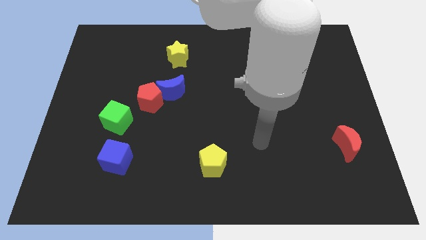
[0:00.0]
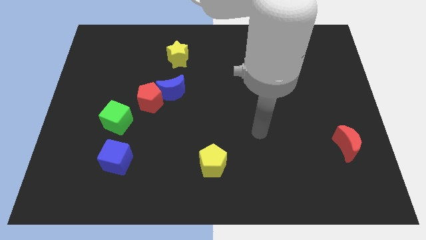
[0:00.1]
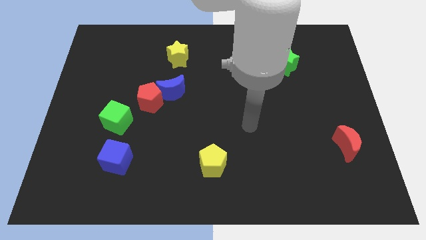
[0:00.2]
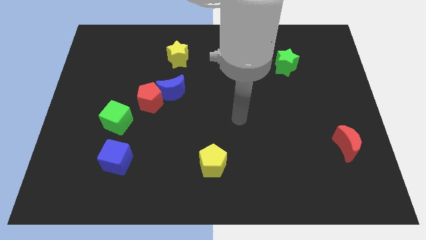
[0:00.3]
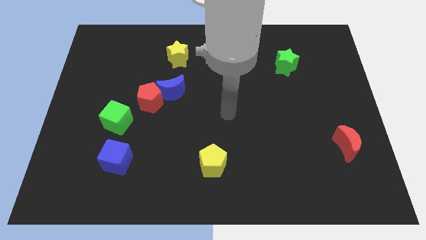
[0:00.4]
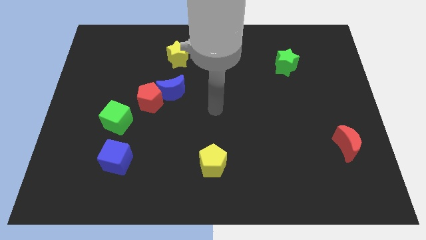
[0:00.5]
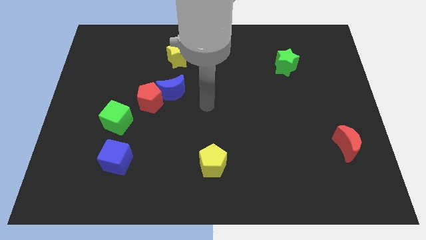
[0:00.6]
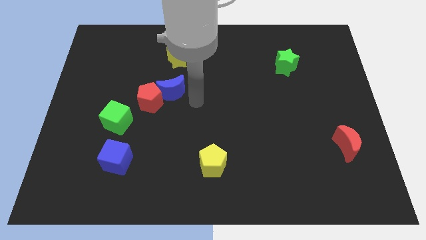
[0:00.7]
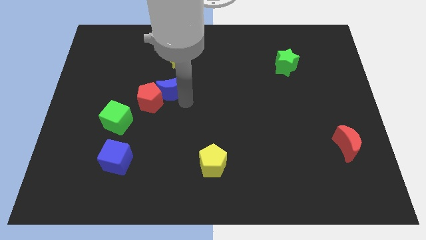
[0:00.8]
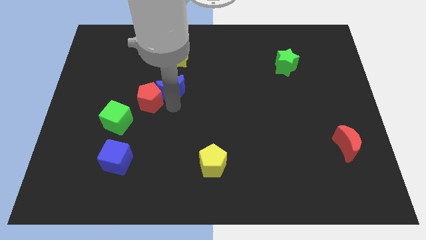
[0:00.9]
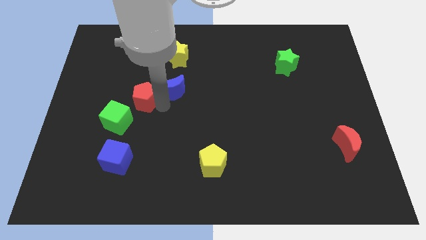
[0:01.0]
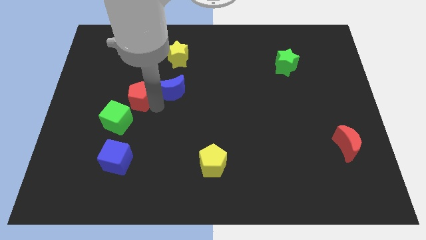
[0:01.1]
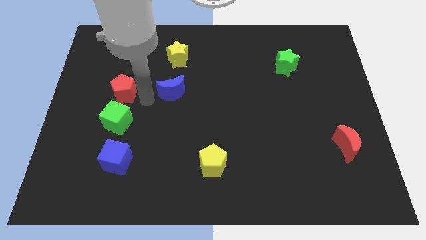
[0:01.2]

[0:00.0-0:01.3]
separate the blue moon from the red pentagon

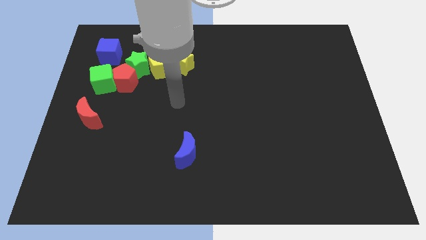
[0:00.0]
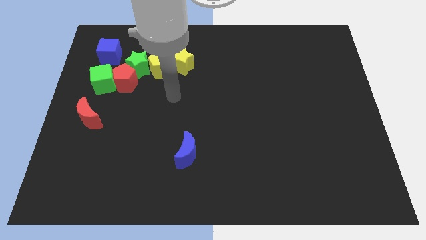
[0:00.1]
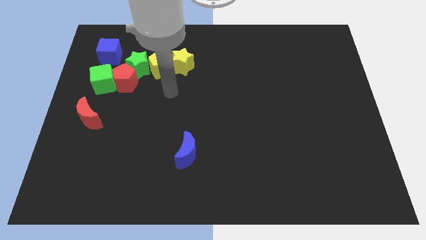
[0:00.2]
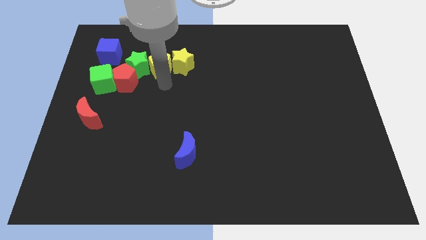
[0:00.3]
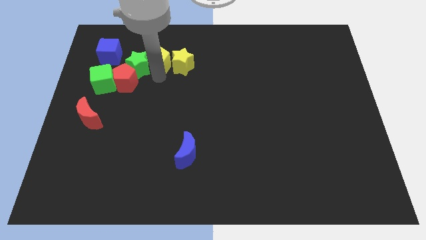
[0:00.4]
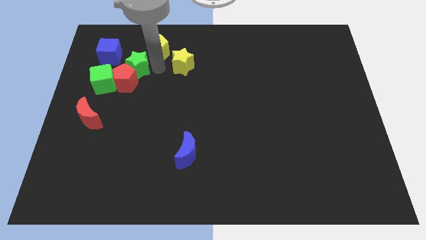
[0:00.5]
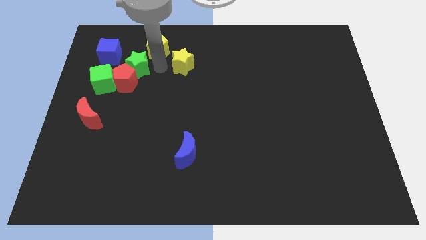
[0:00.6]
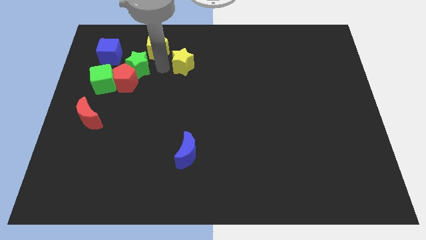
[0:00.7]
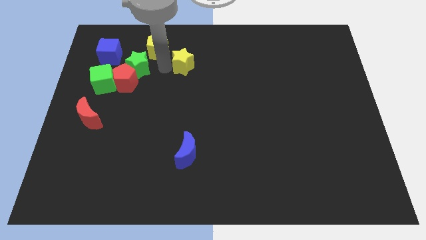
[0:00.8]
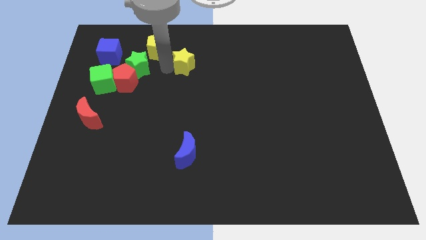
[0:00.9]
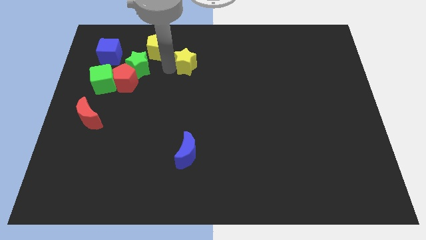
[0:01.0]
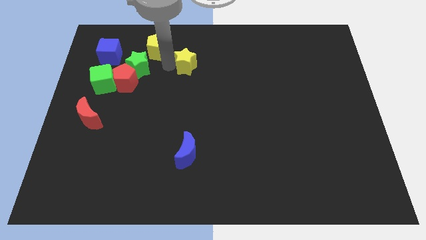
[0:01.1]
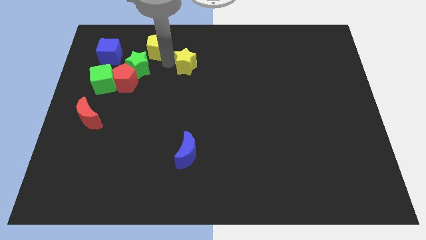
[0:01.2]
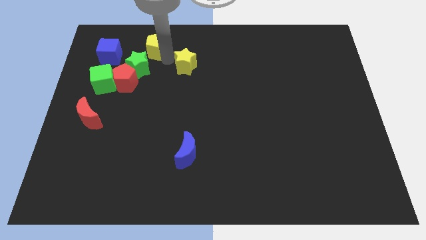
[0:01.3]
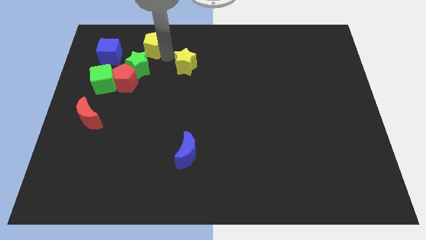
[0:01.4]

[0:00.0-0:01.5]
move the yellow star away from the yellow pentagon

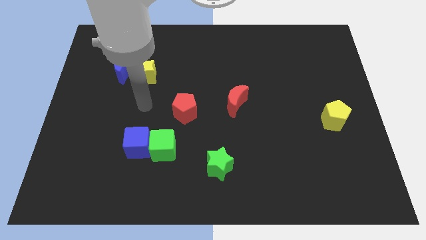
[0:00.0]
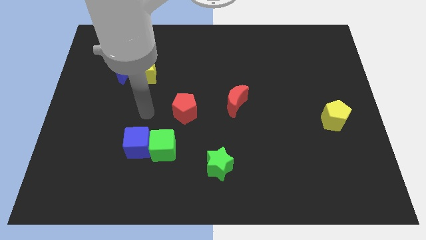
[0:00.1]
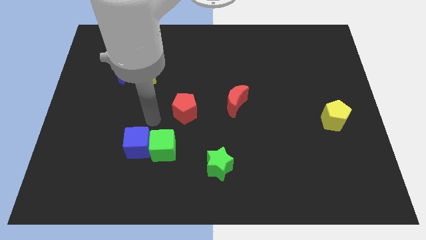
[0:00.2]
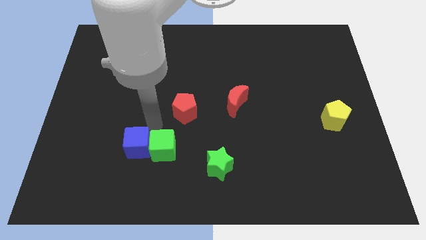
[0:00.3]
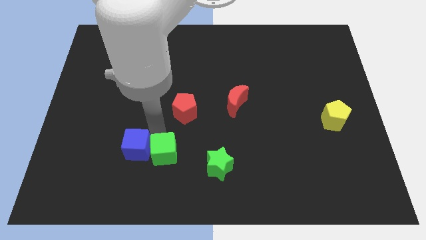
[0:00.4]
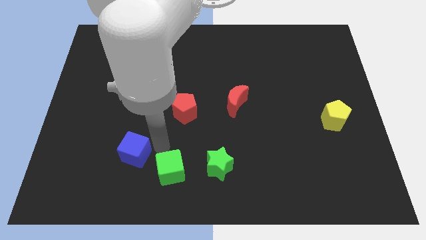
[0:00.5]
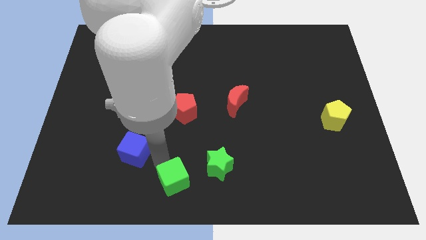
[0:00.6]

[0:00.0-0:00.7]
pull the blue cube apart from the green cube

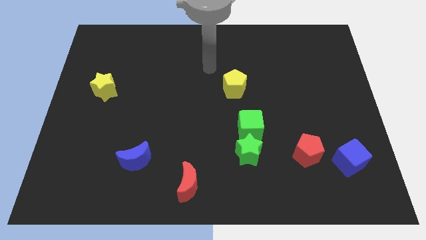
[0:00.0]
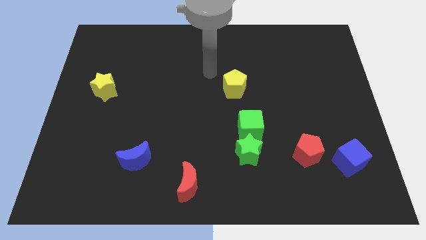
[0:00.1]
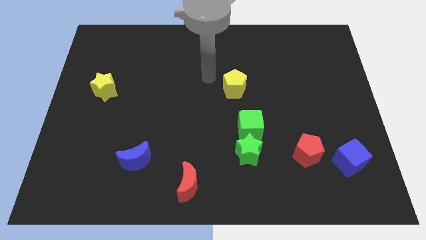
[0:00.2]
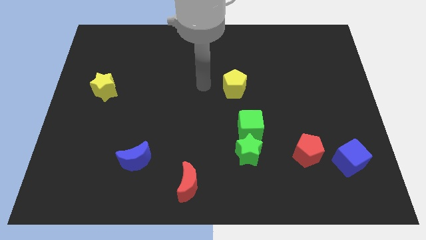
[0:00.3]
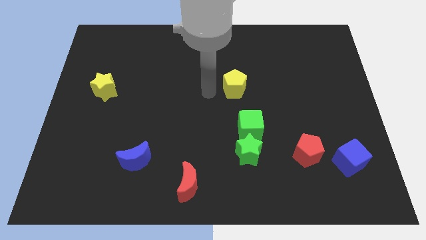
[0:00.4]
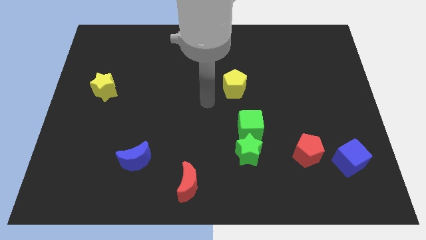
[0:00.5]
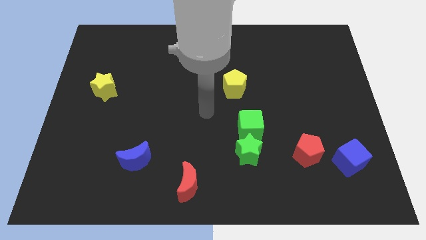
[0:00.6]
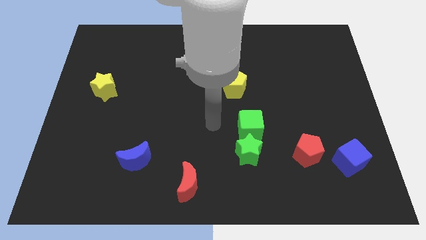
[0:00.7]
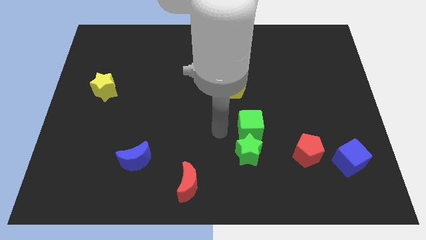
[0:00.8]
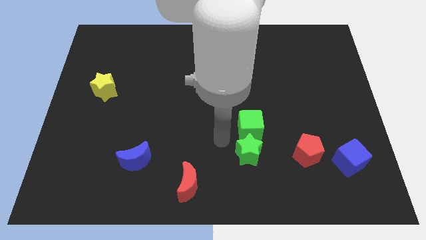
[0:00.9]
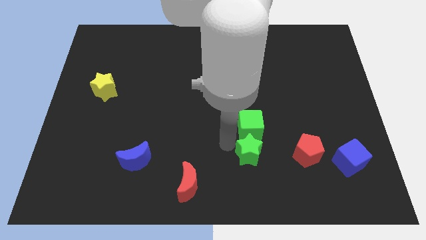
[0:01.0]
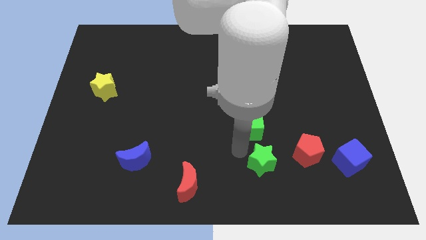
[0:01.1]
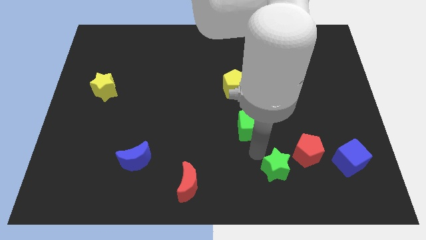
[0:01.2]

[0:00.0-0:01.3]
move the green cube away from the green star

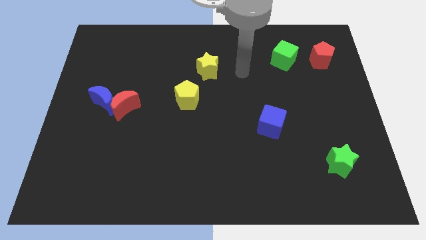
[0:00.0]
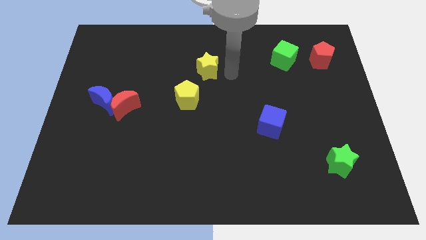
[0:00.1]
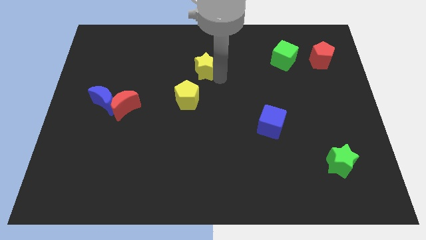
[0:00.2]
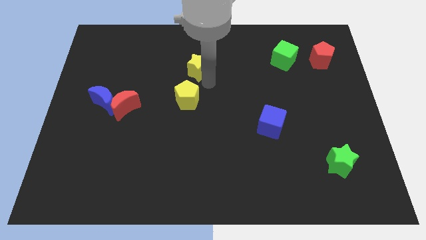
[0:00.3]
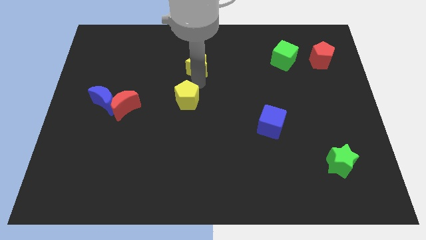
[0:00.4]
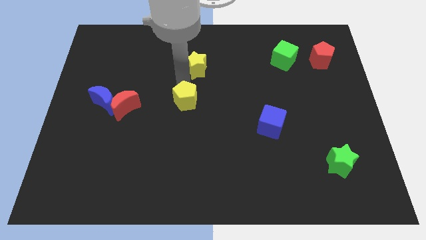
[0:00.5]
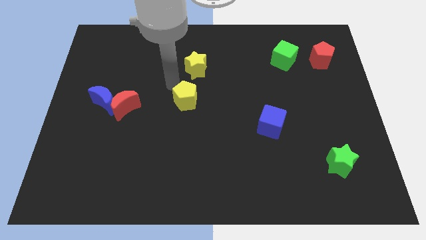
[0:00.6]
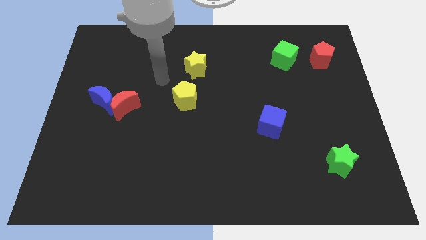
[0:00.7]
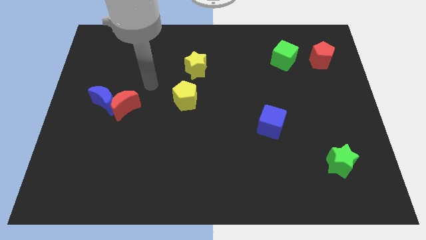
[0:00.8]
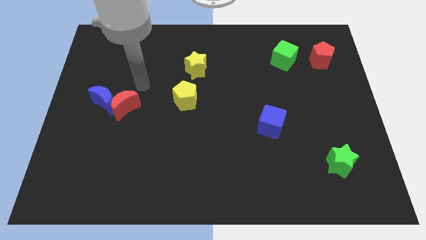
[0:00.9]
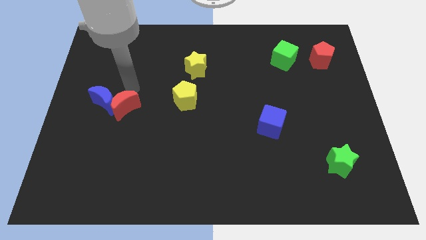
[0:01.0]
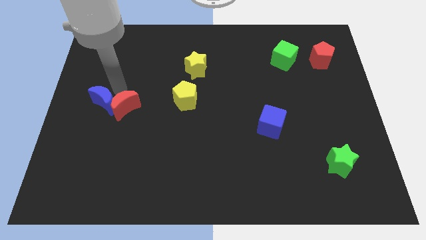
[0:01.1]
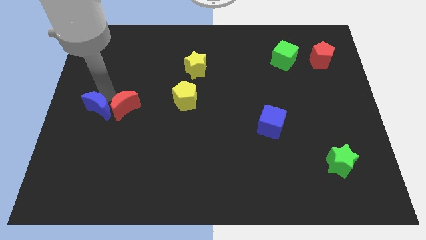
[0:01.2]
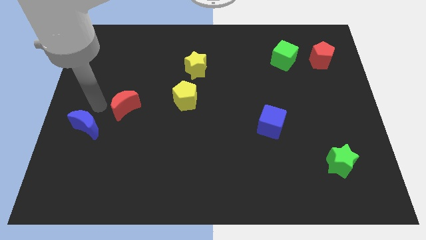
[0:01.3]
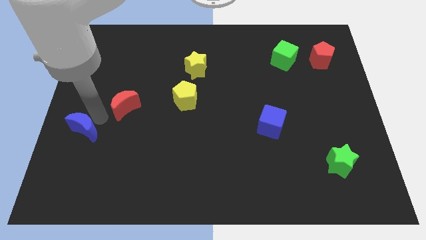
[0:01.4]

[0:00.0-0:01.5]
pull the red moon apart from the blue moon

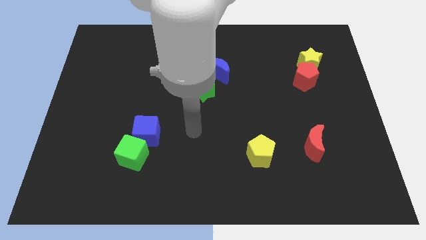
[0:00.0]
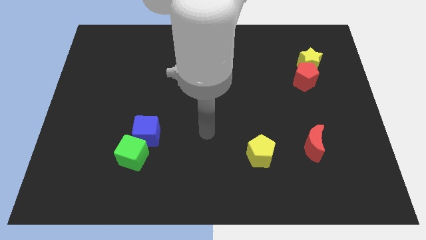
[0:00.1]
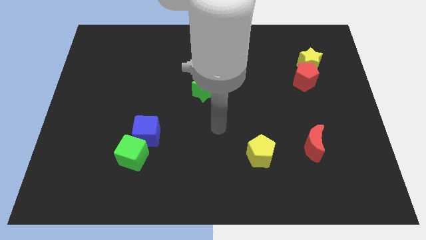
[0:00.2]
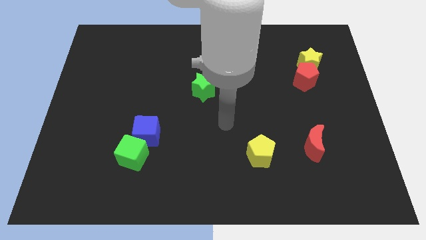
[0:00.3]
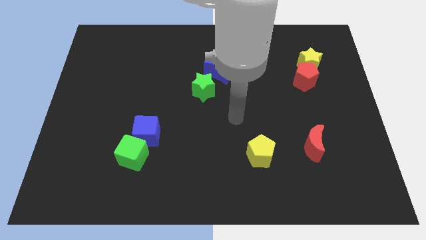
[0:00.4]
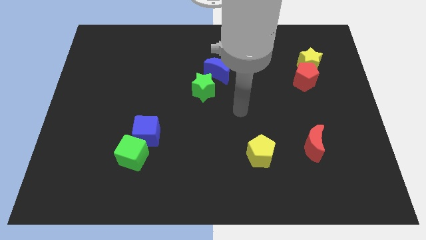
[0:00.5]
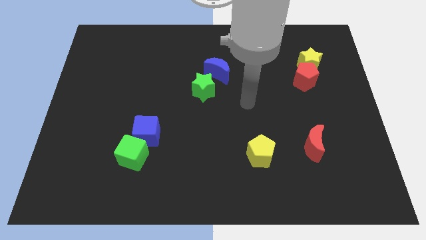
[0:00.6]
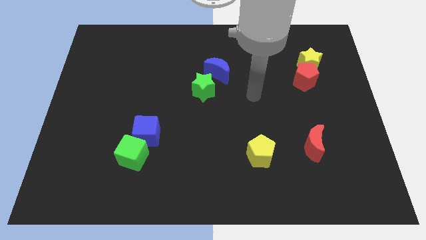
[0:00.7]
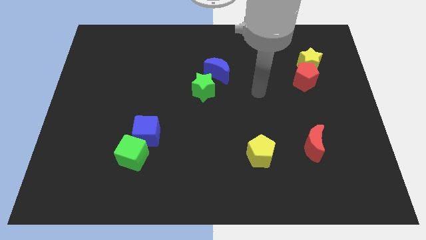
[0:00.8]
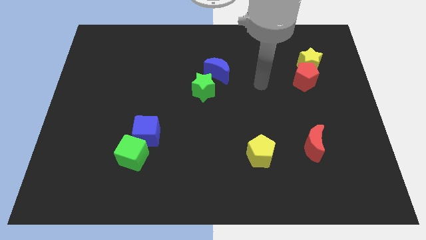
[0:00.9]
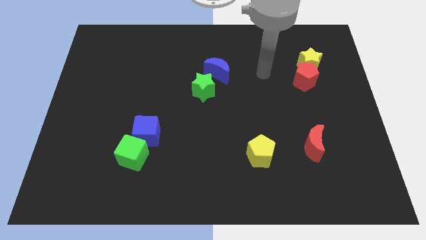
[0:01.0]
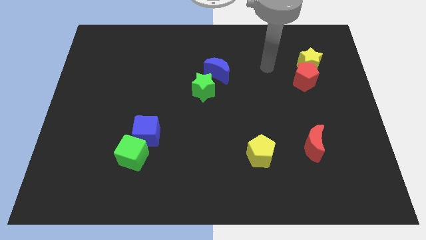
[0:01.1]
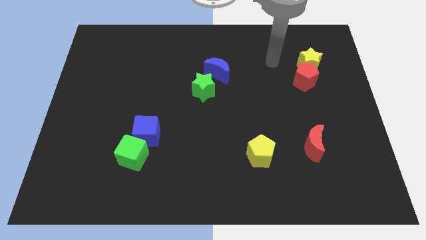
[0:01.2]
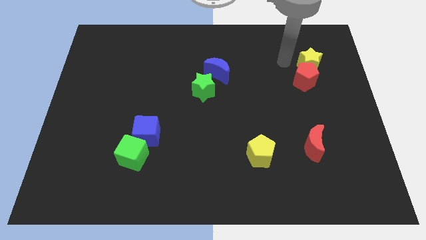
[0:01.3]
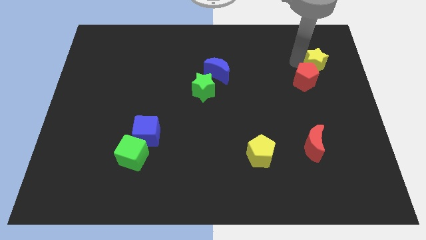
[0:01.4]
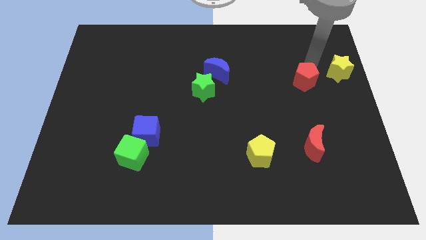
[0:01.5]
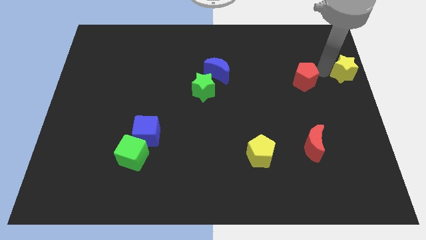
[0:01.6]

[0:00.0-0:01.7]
move the red pentagon away from the yellow star

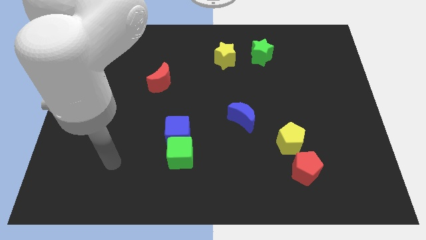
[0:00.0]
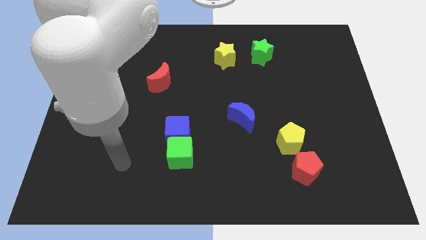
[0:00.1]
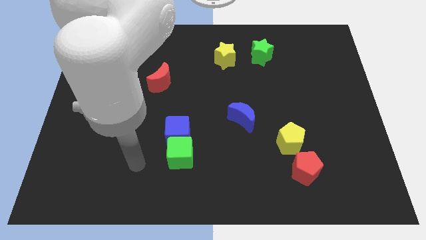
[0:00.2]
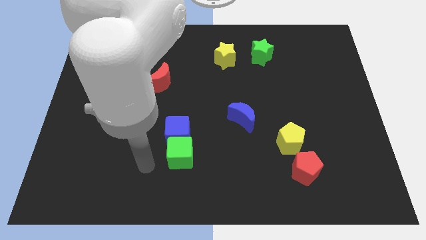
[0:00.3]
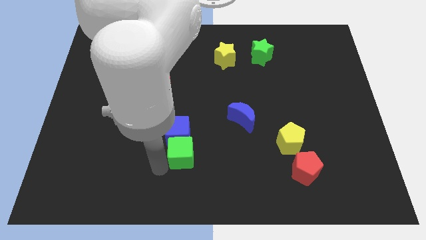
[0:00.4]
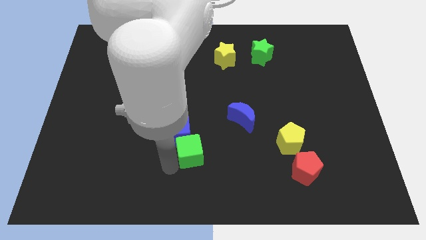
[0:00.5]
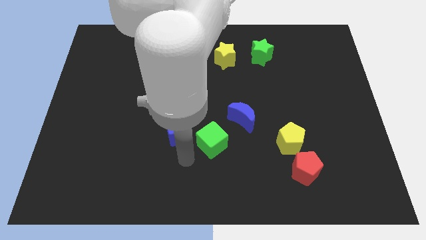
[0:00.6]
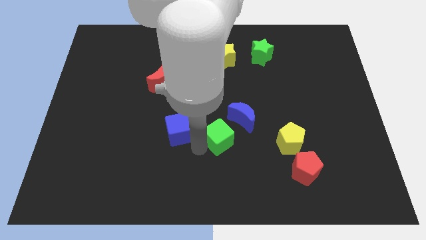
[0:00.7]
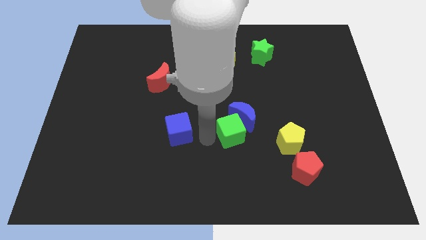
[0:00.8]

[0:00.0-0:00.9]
move the blue cube away from the green cube

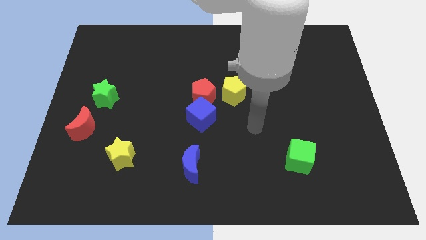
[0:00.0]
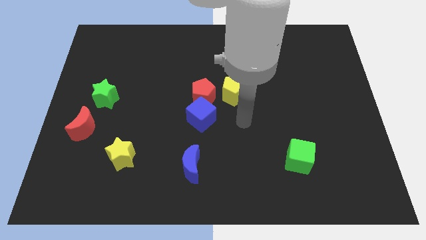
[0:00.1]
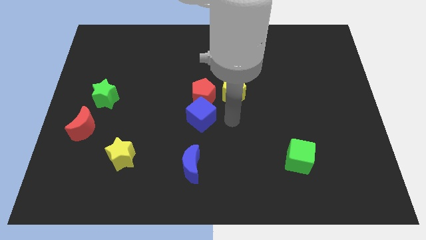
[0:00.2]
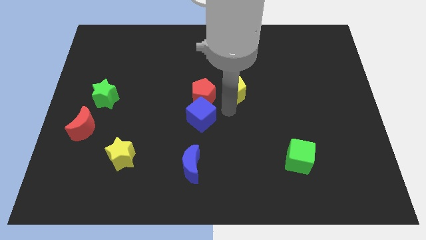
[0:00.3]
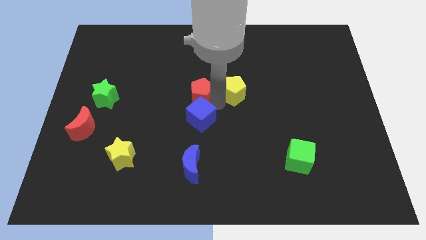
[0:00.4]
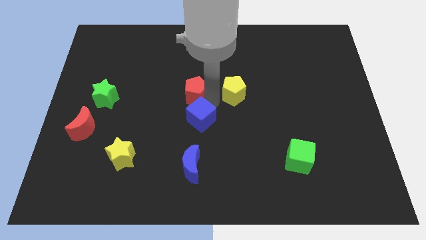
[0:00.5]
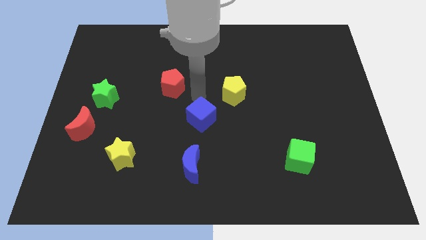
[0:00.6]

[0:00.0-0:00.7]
pull the blue cube apart from the red pentagon
